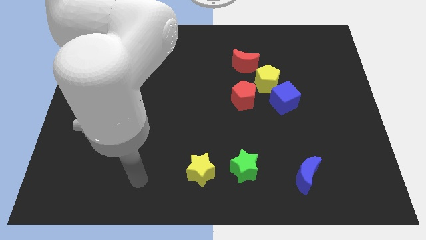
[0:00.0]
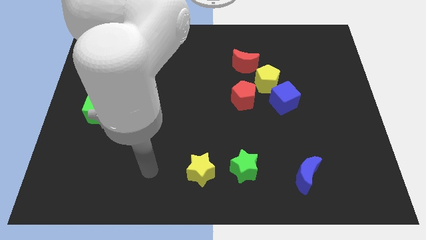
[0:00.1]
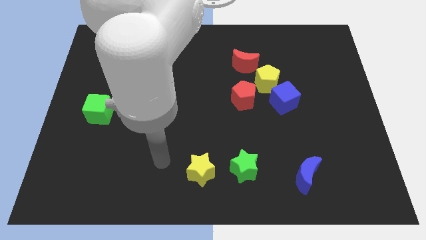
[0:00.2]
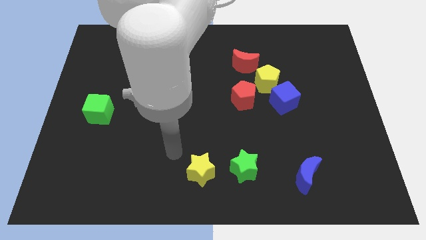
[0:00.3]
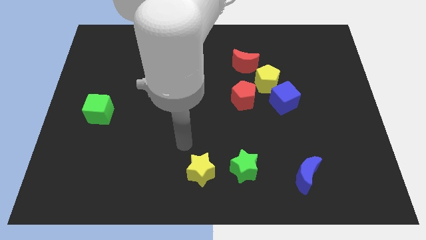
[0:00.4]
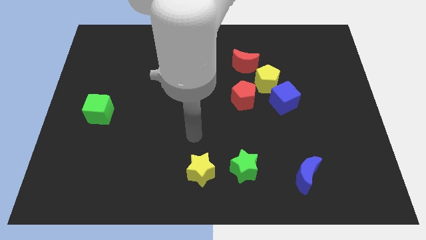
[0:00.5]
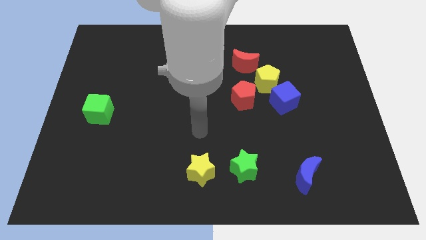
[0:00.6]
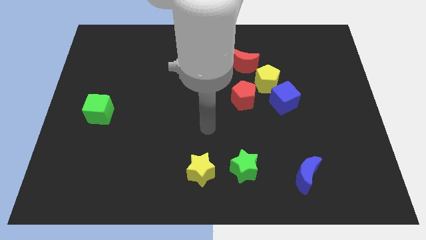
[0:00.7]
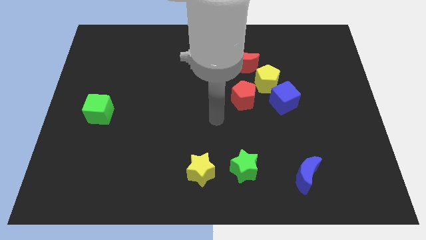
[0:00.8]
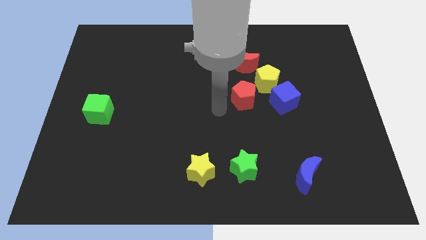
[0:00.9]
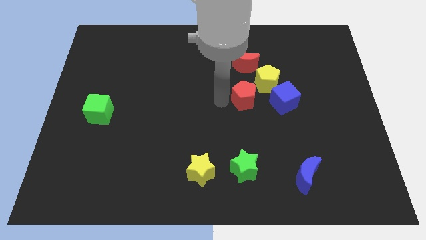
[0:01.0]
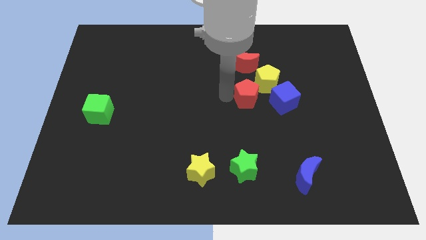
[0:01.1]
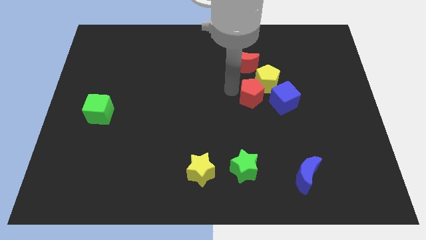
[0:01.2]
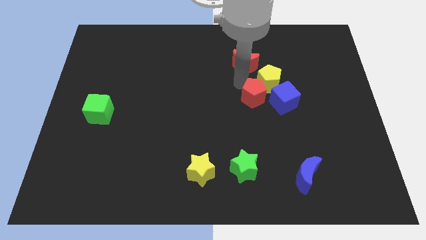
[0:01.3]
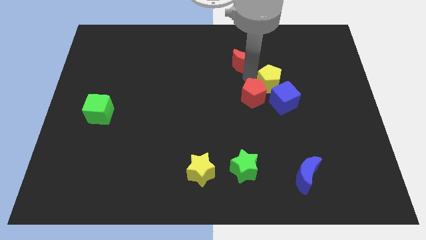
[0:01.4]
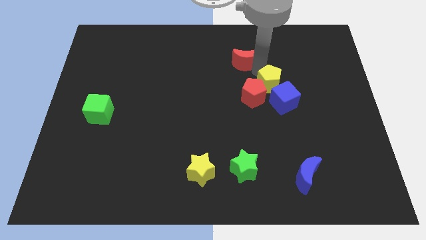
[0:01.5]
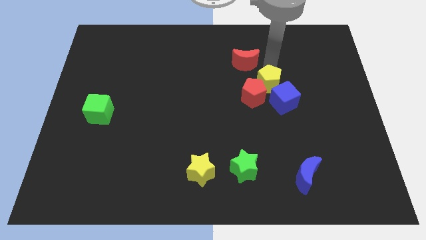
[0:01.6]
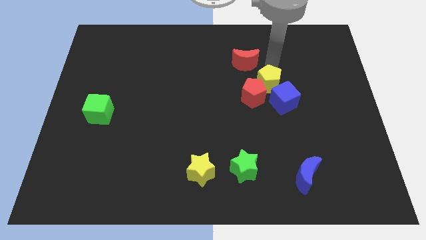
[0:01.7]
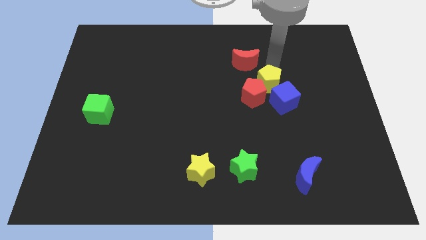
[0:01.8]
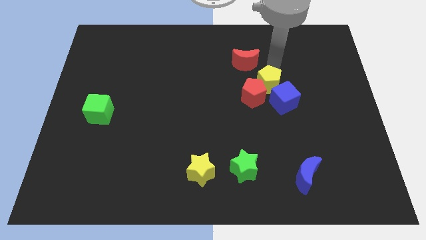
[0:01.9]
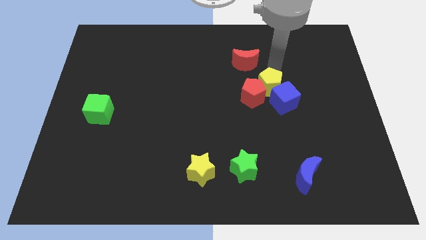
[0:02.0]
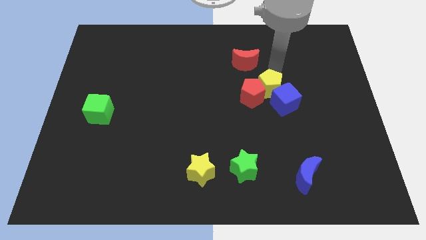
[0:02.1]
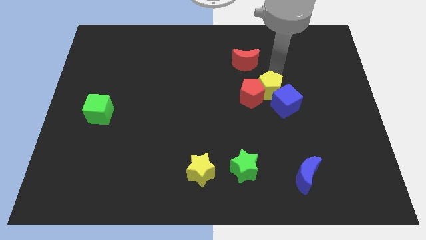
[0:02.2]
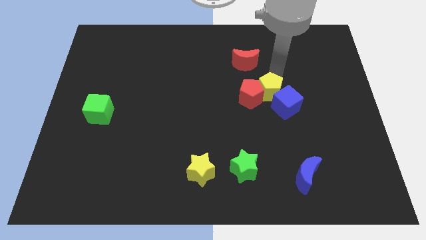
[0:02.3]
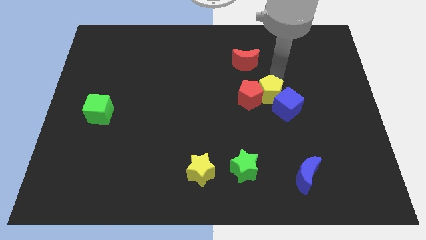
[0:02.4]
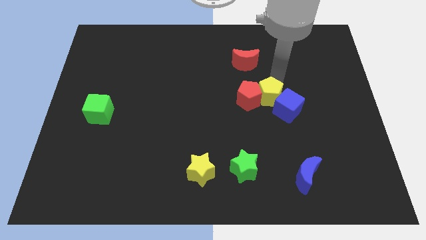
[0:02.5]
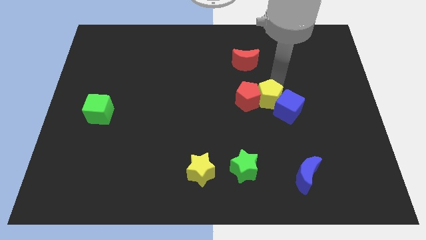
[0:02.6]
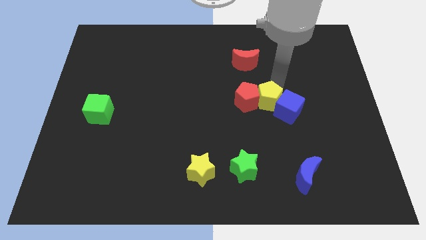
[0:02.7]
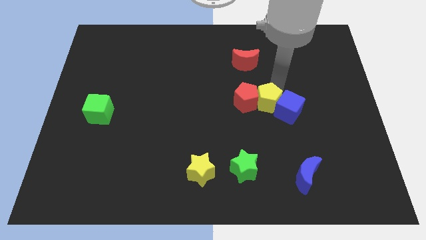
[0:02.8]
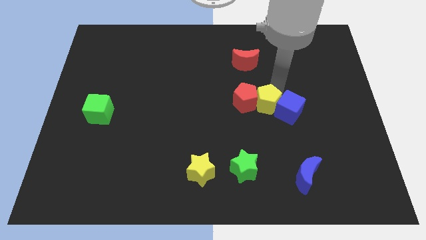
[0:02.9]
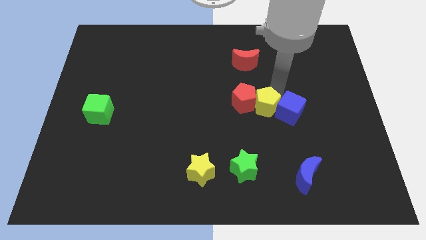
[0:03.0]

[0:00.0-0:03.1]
slightly slide the yellow pentagon down

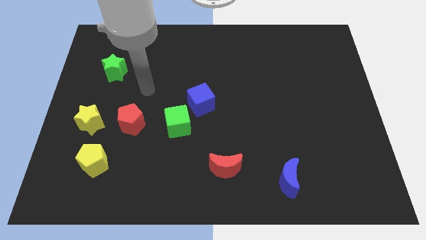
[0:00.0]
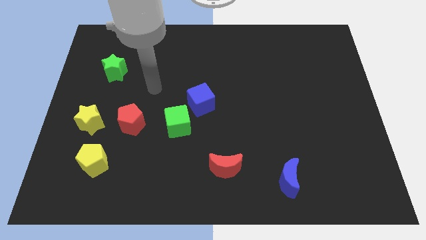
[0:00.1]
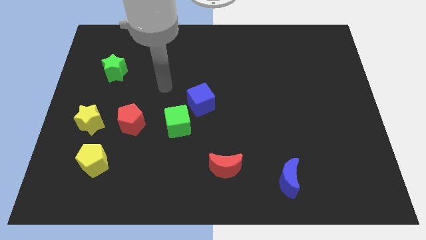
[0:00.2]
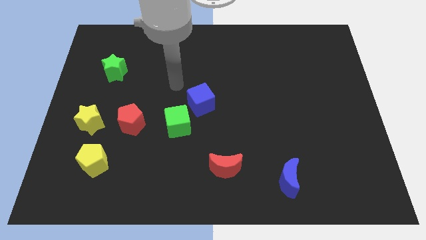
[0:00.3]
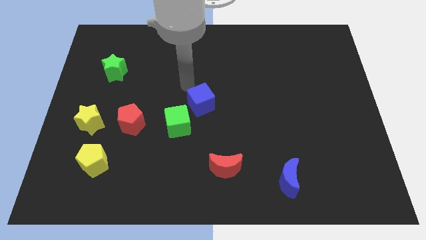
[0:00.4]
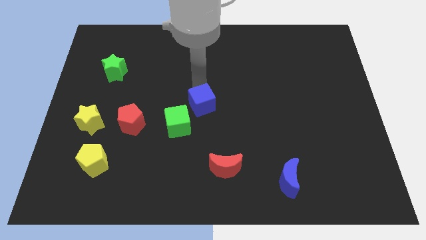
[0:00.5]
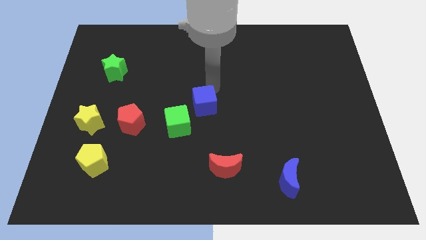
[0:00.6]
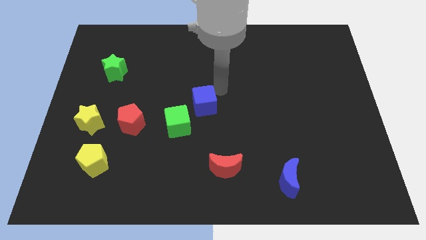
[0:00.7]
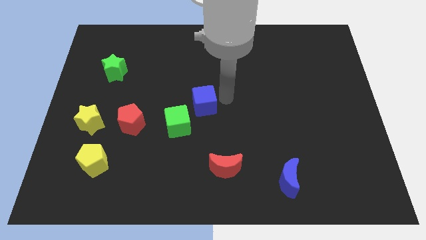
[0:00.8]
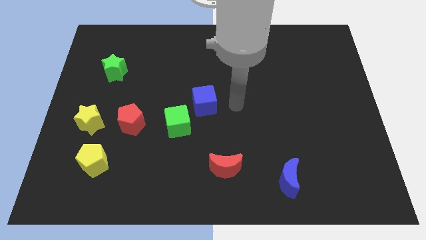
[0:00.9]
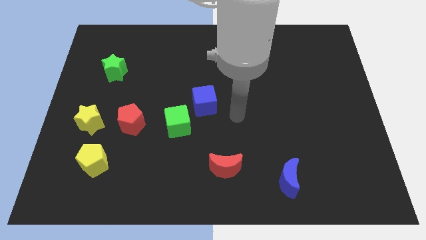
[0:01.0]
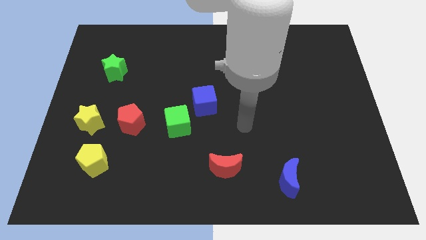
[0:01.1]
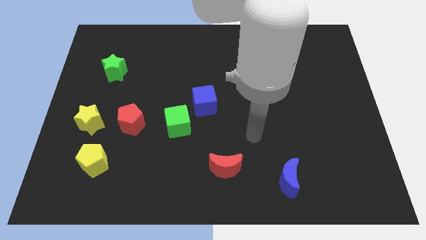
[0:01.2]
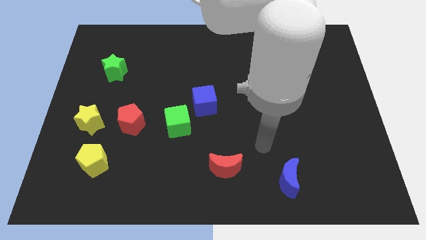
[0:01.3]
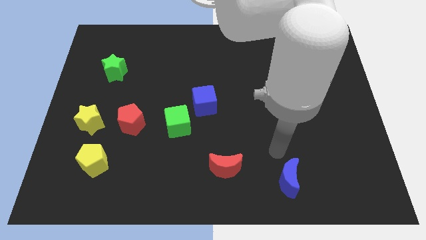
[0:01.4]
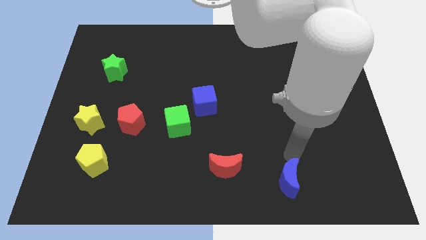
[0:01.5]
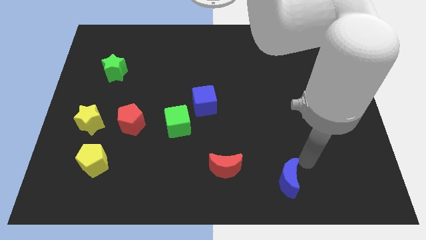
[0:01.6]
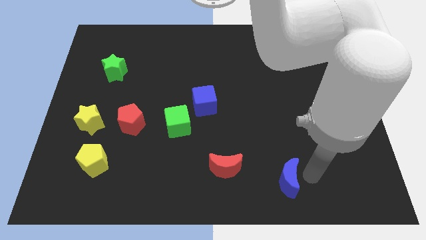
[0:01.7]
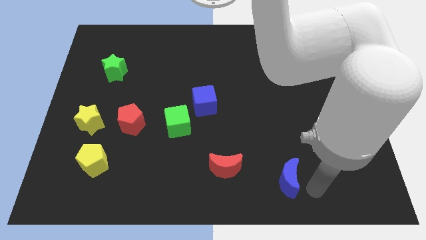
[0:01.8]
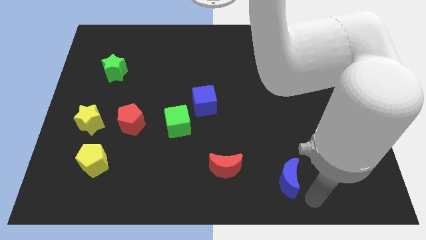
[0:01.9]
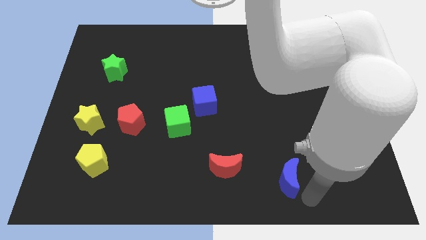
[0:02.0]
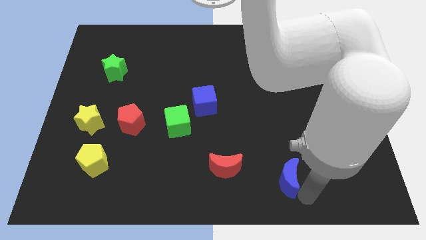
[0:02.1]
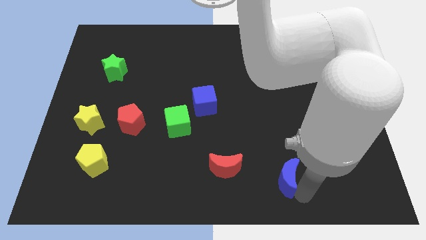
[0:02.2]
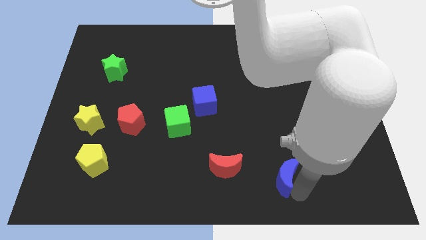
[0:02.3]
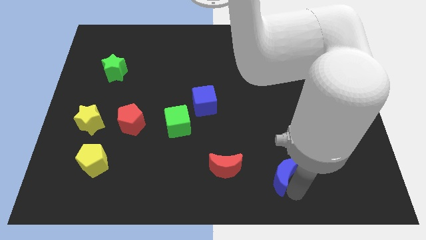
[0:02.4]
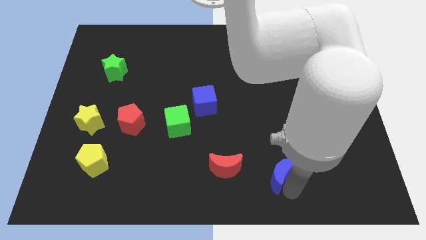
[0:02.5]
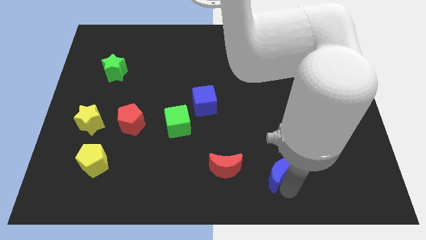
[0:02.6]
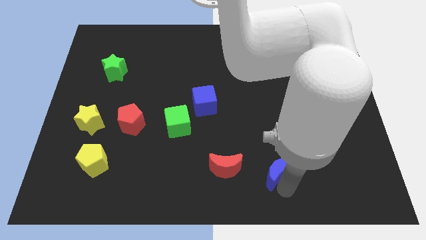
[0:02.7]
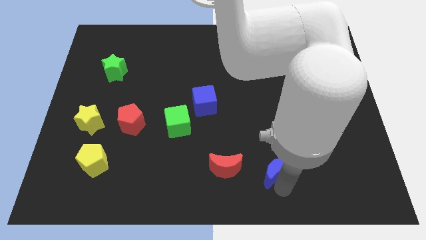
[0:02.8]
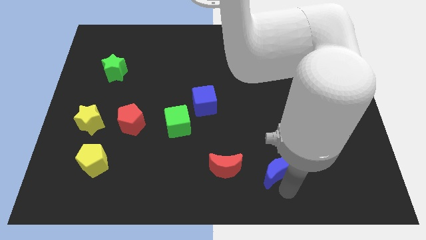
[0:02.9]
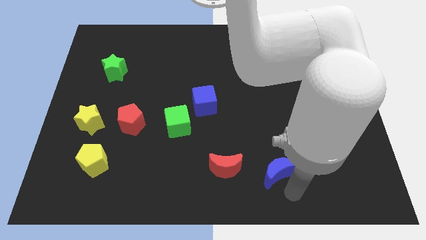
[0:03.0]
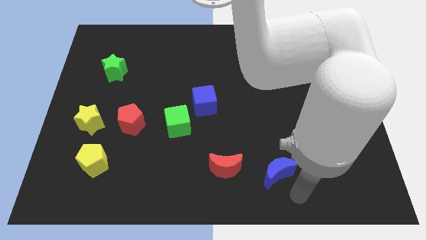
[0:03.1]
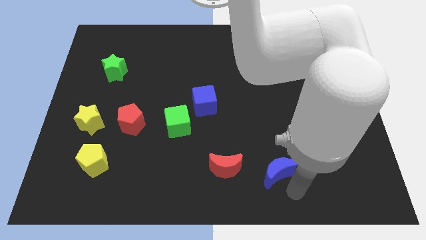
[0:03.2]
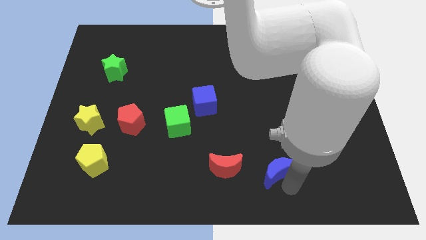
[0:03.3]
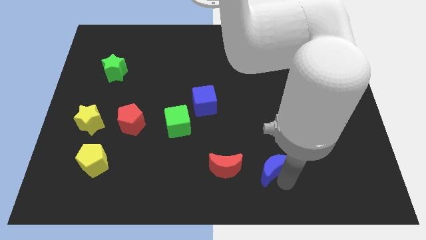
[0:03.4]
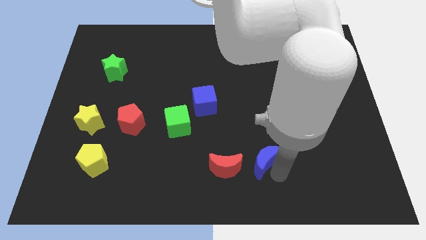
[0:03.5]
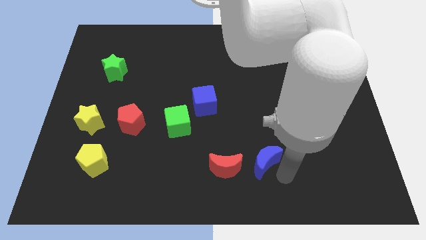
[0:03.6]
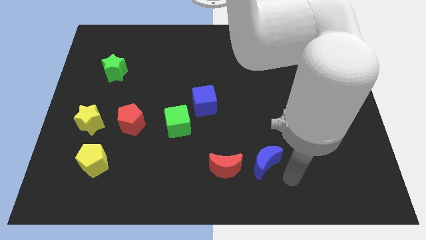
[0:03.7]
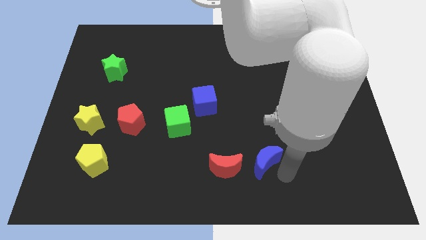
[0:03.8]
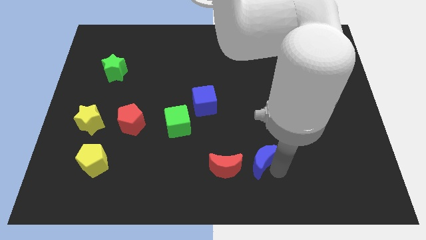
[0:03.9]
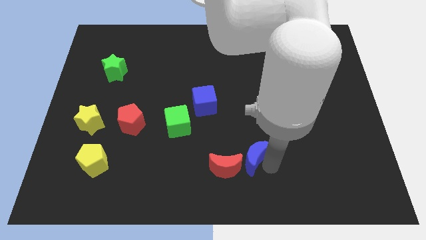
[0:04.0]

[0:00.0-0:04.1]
push the blue moon a little upwards and then left

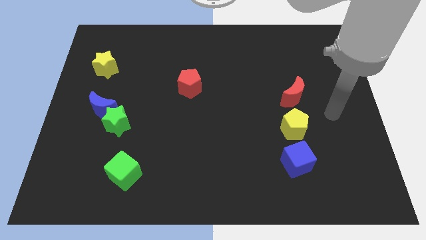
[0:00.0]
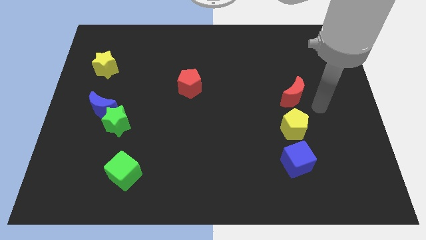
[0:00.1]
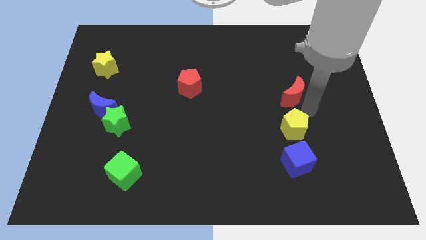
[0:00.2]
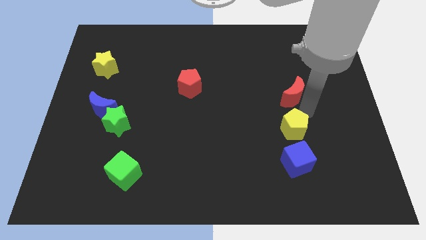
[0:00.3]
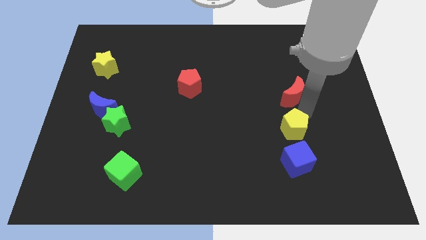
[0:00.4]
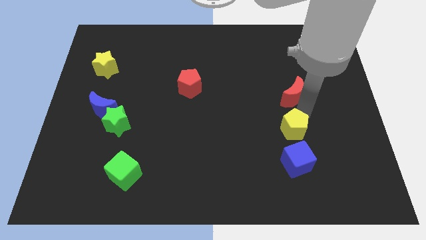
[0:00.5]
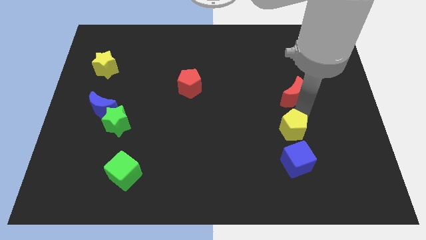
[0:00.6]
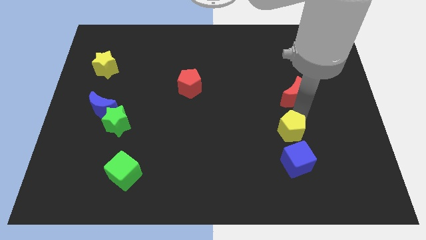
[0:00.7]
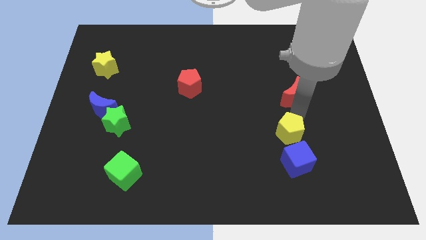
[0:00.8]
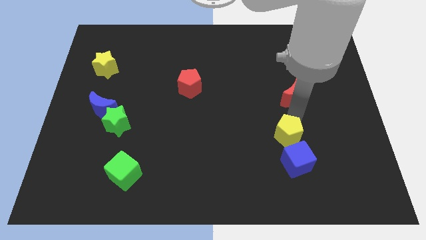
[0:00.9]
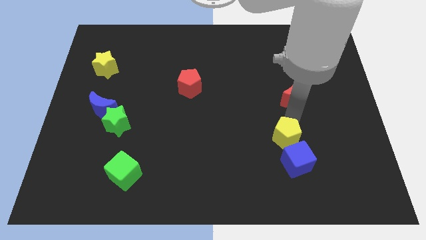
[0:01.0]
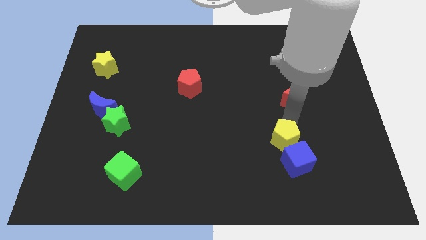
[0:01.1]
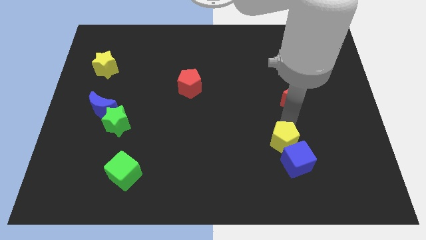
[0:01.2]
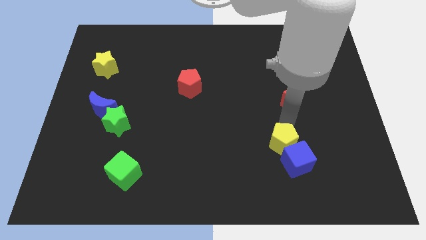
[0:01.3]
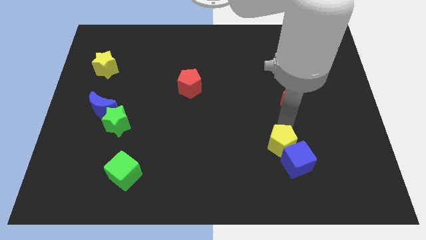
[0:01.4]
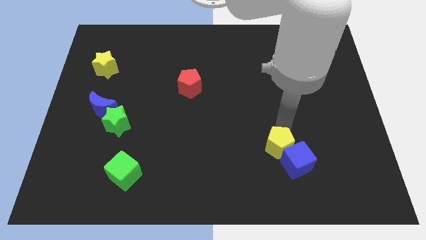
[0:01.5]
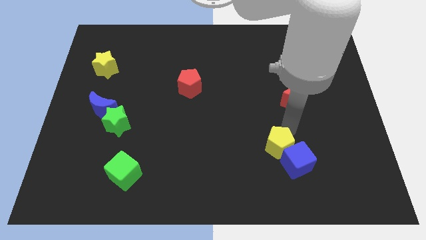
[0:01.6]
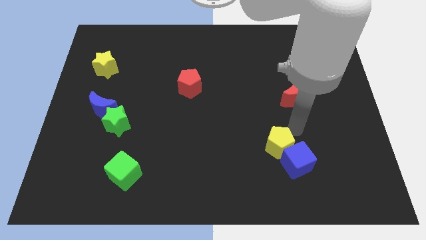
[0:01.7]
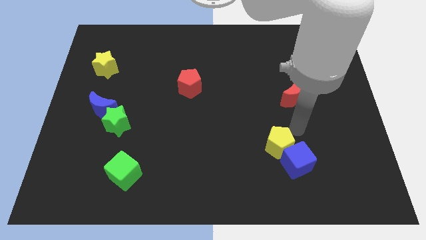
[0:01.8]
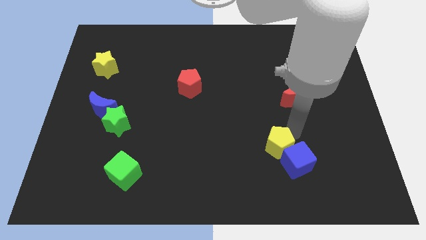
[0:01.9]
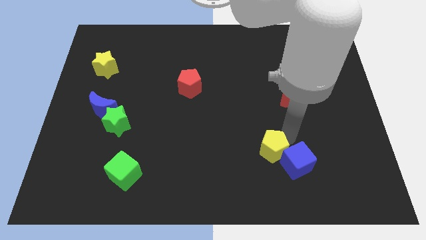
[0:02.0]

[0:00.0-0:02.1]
move the yellow pentagon a little downwards and to the left diagonally
